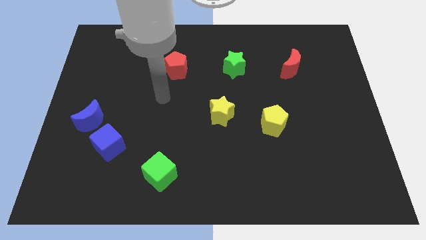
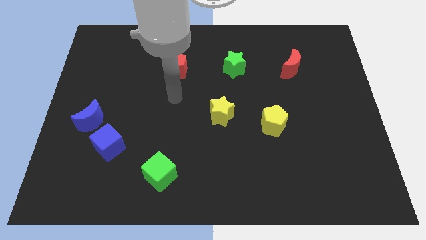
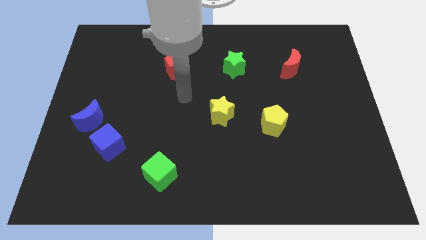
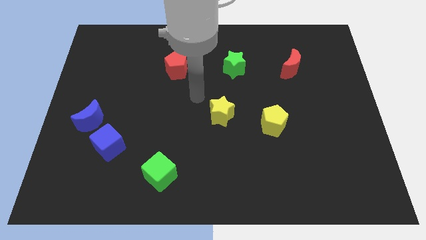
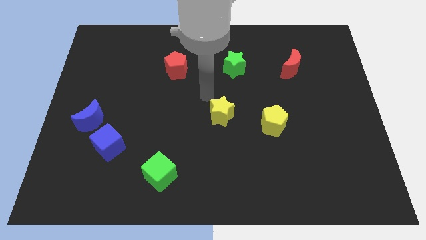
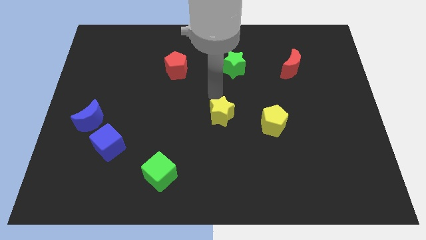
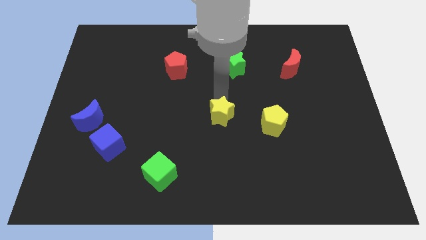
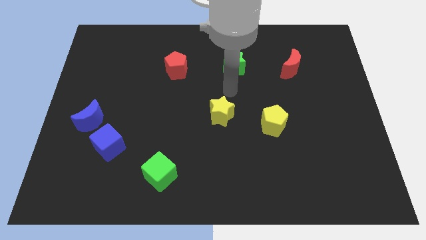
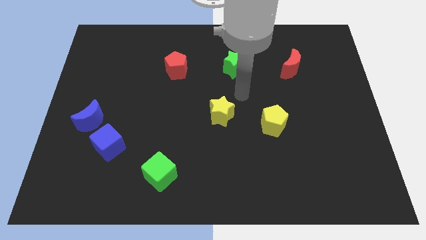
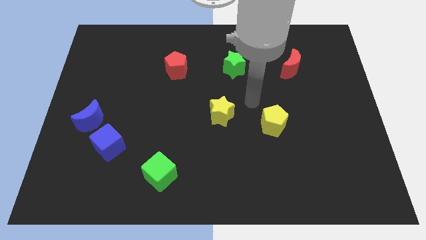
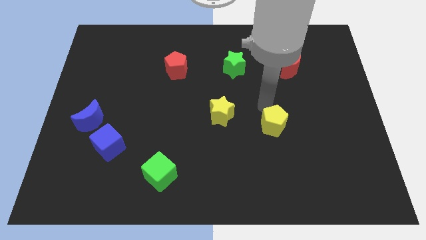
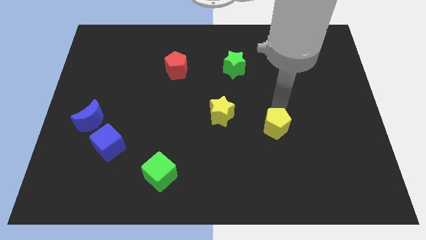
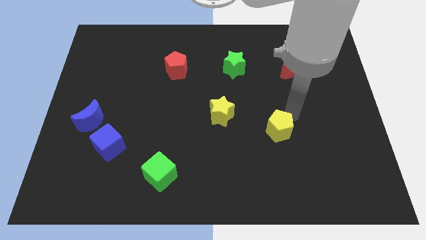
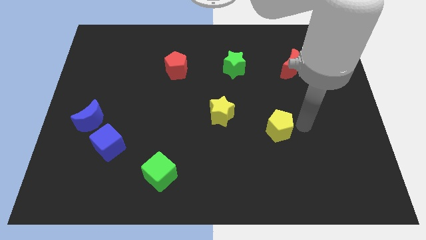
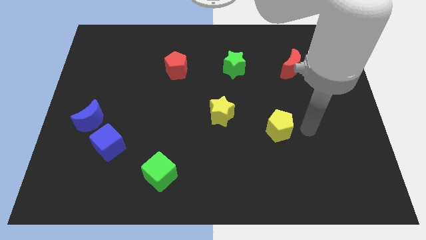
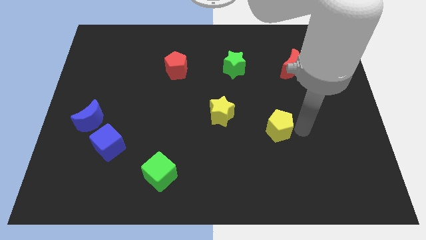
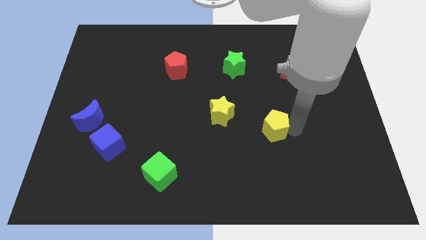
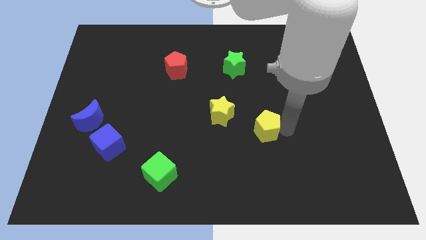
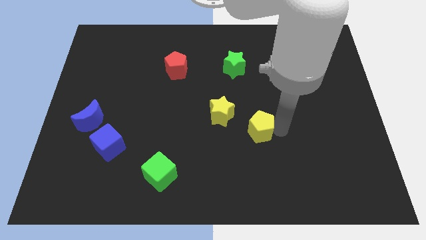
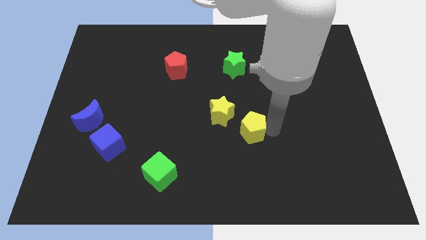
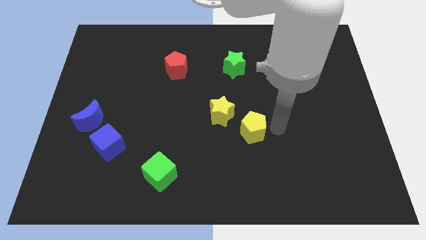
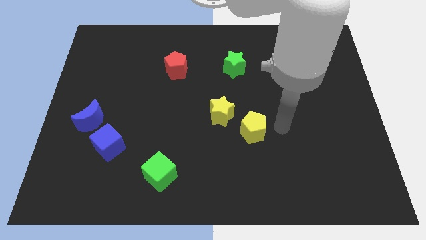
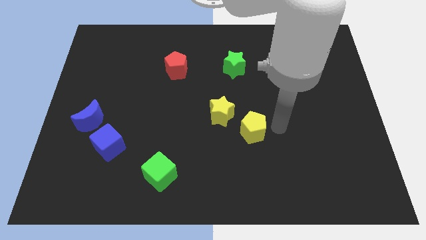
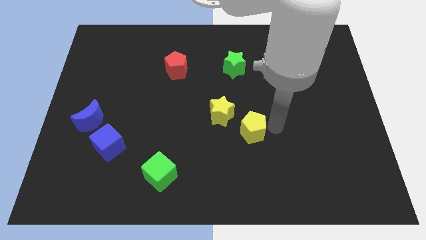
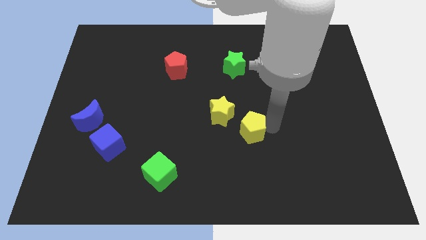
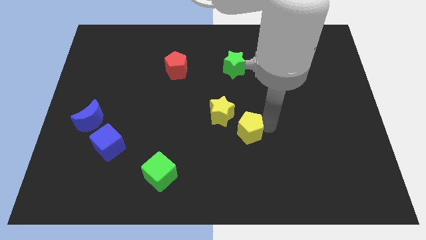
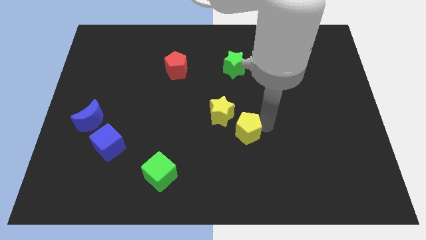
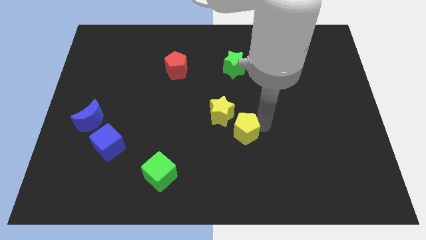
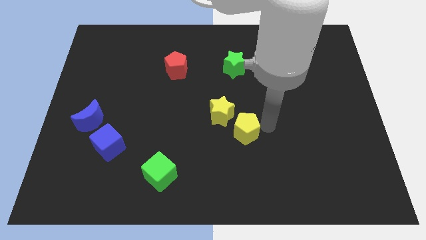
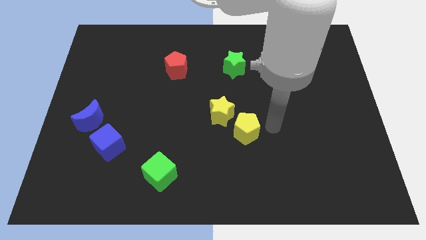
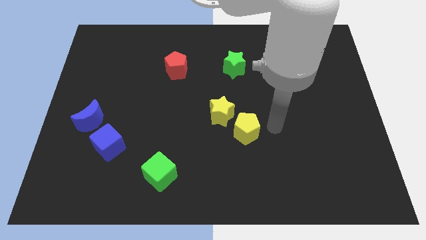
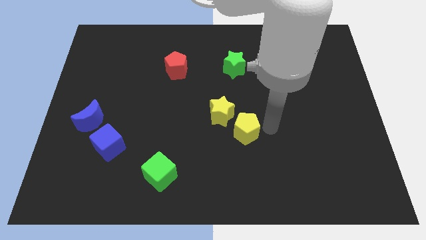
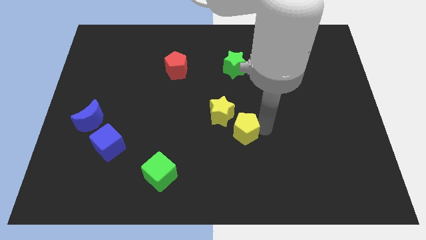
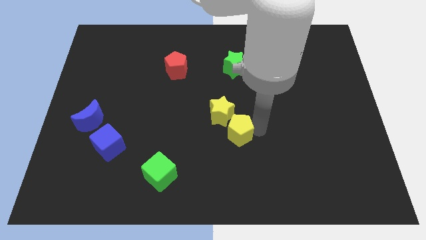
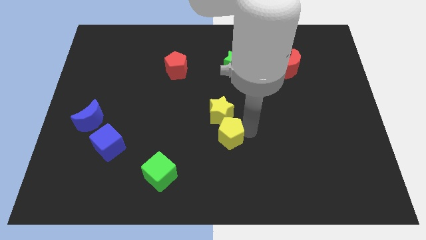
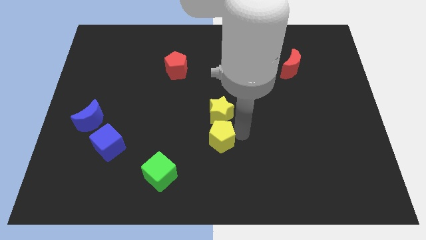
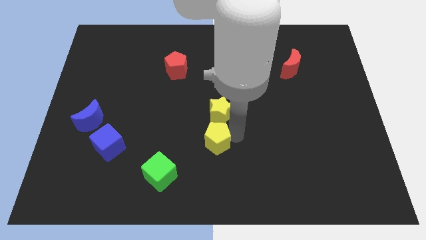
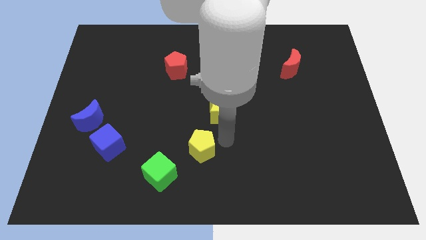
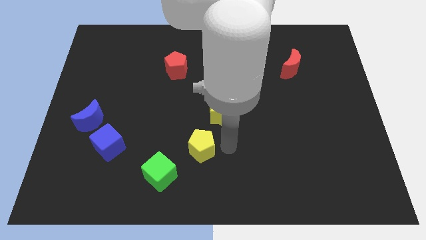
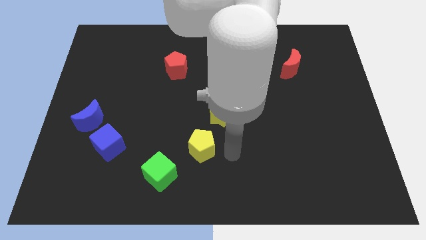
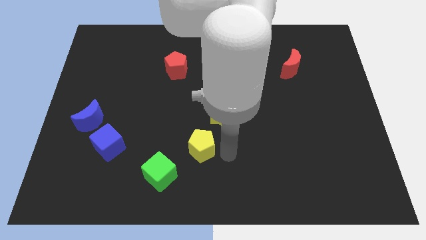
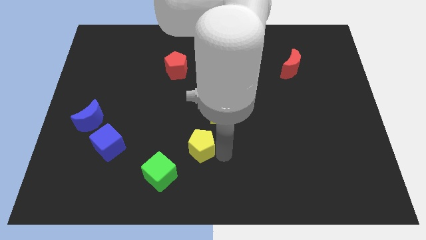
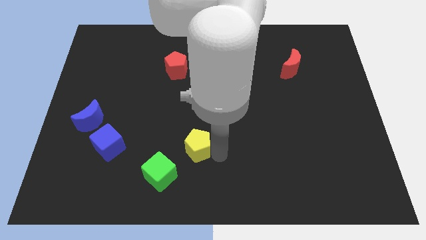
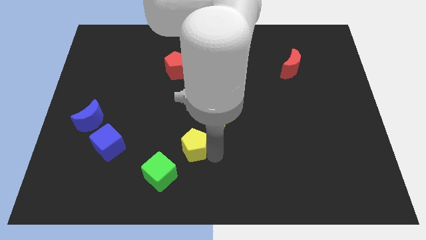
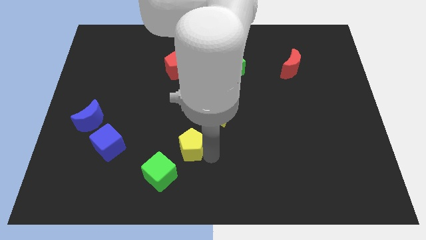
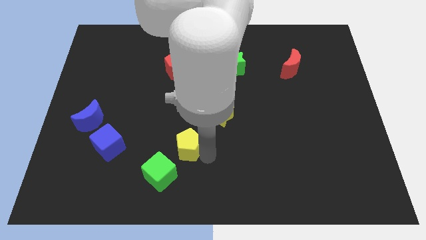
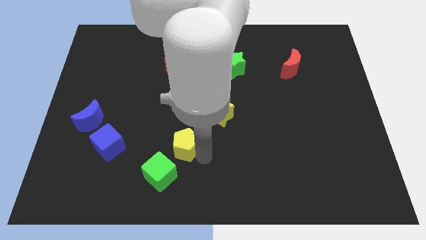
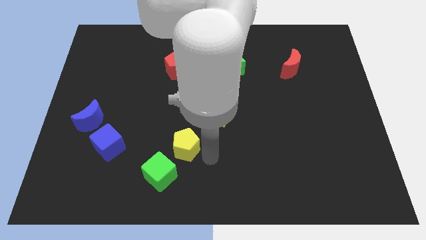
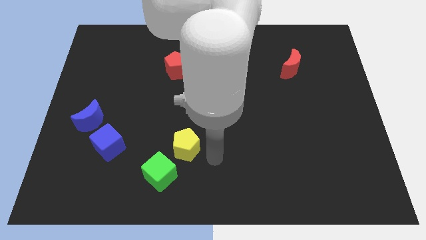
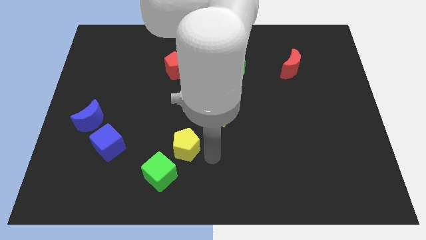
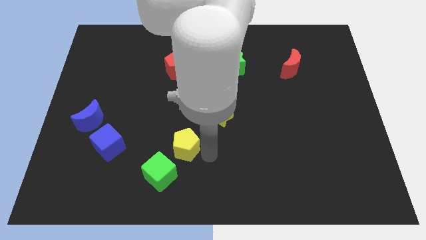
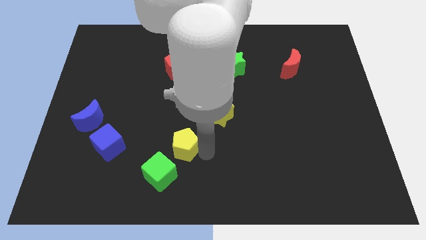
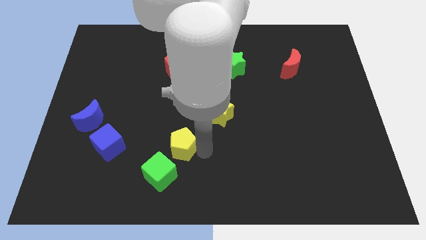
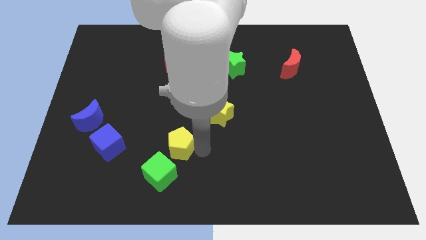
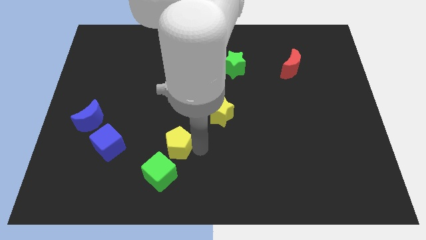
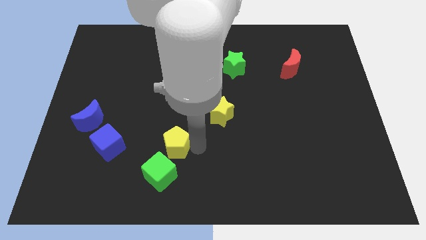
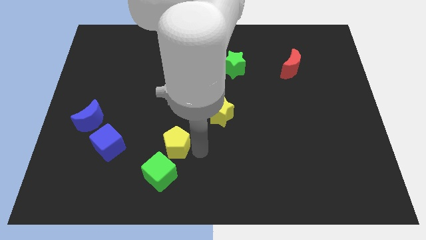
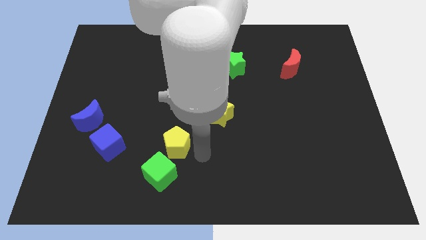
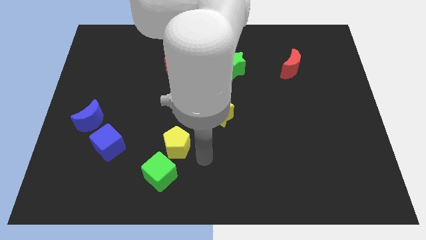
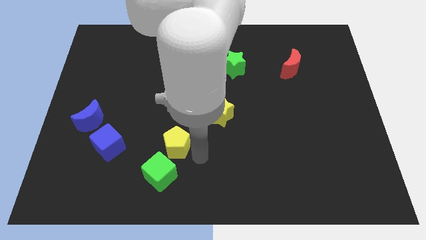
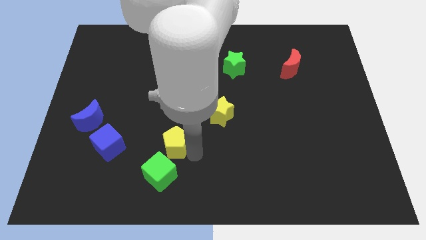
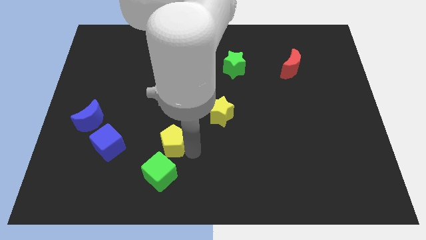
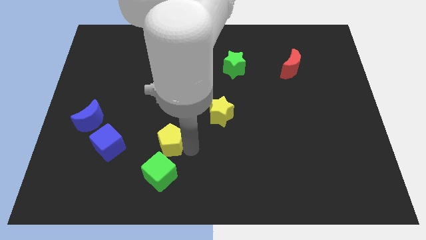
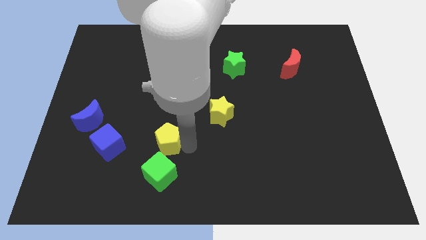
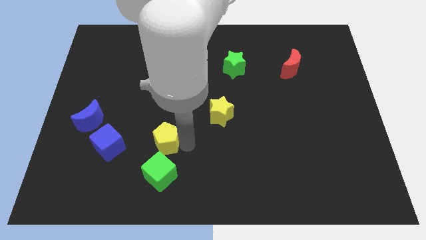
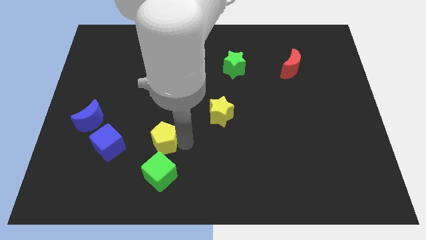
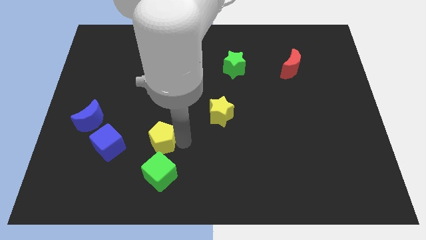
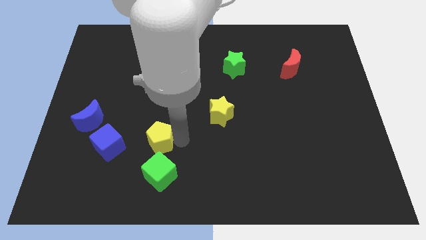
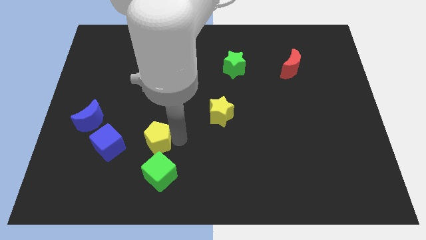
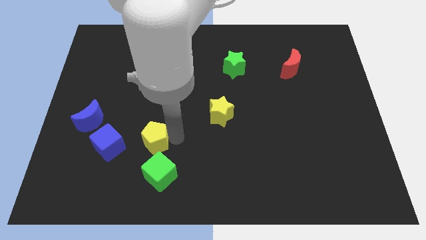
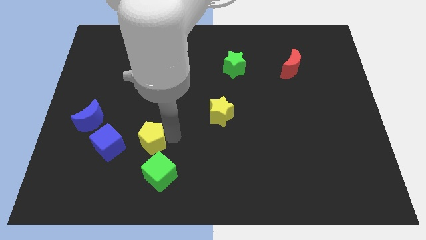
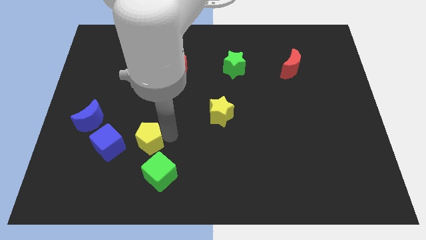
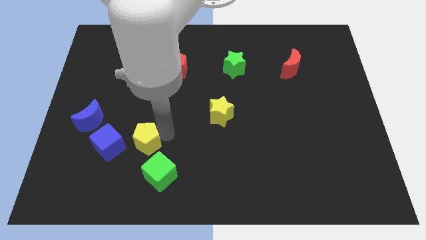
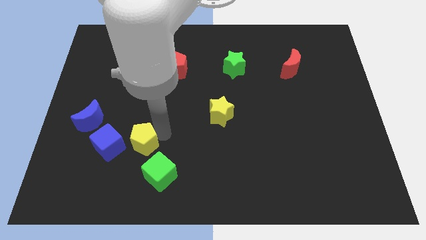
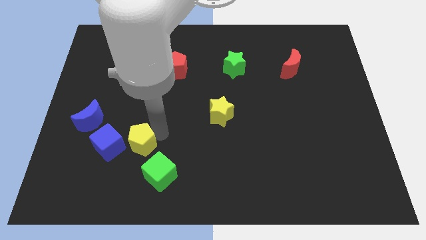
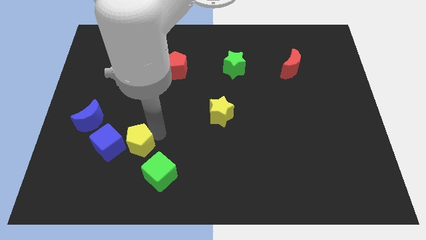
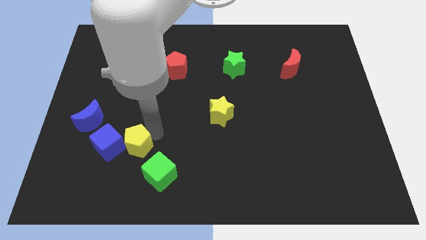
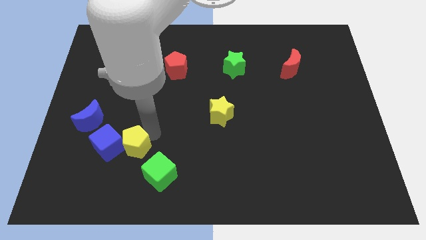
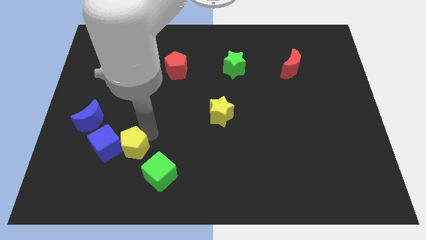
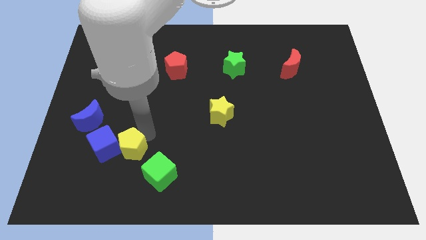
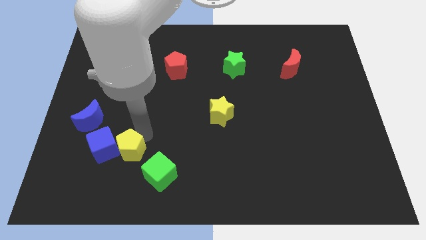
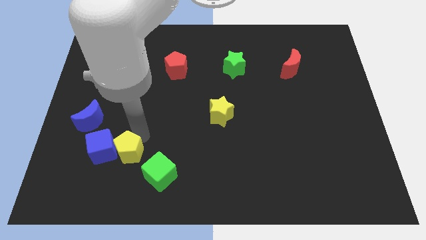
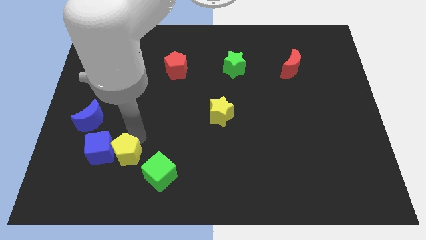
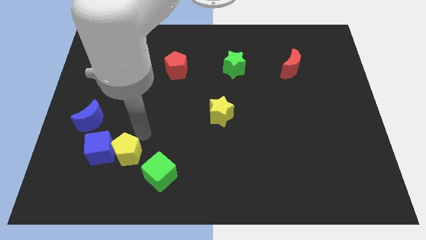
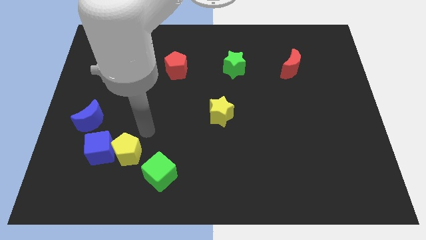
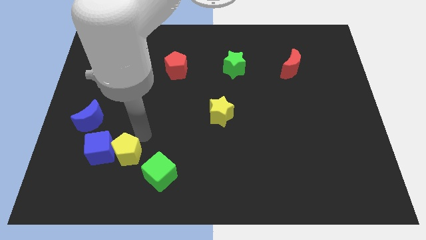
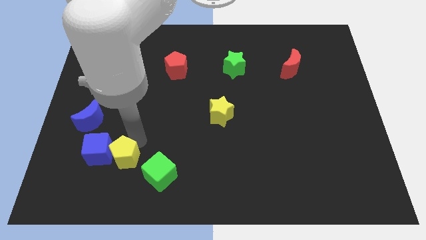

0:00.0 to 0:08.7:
push the yellow pentagon to the left of the green cube
